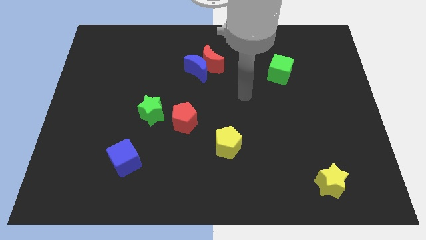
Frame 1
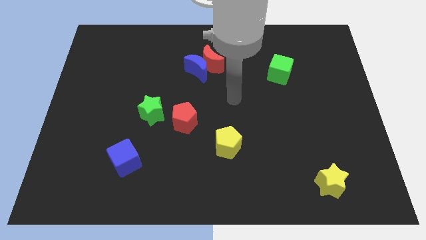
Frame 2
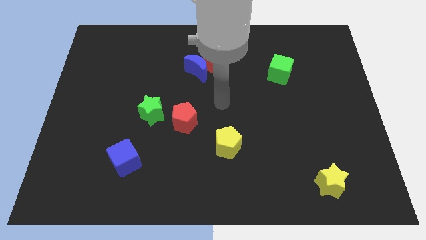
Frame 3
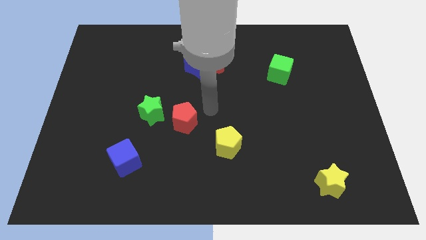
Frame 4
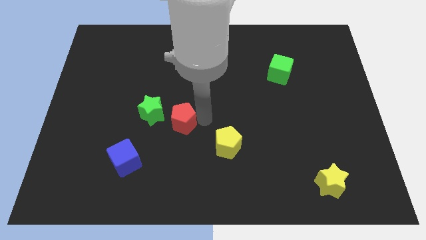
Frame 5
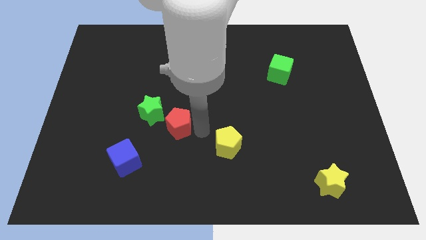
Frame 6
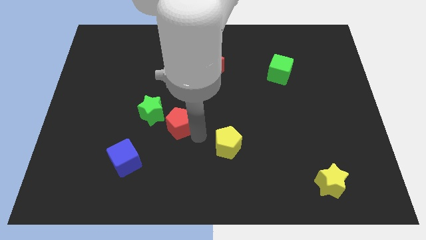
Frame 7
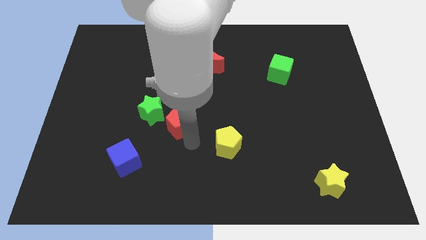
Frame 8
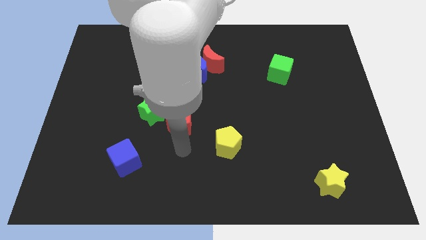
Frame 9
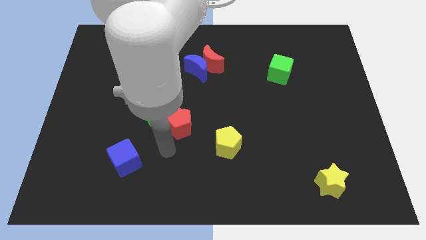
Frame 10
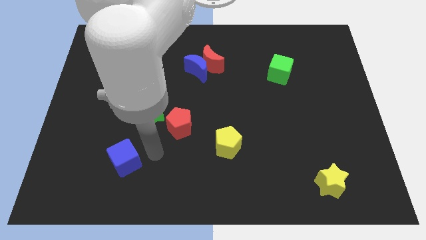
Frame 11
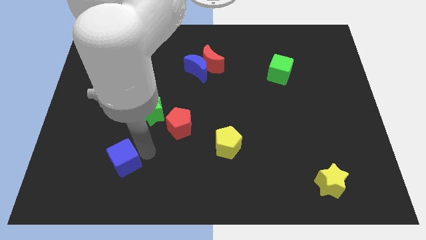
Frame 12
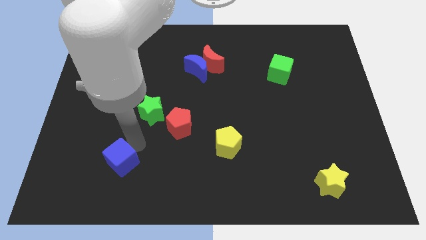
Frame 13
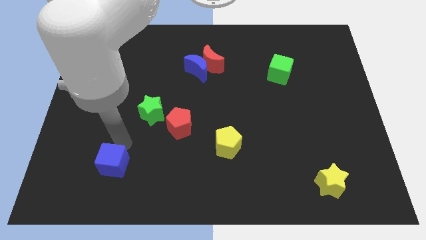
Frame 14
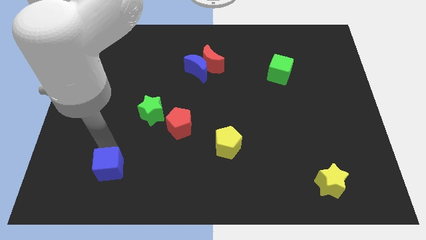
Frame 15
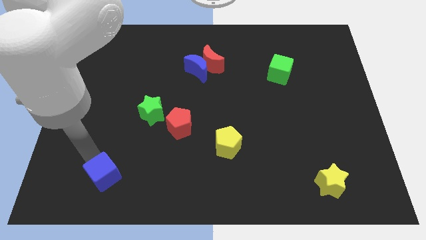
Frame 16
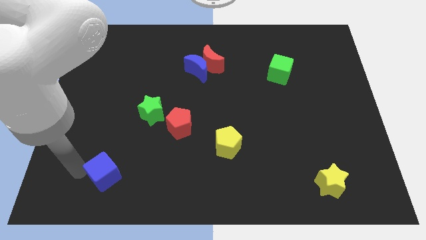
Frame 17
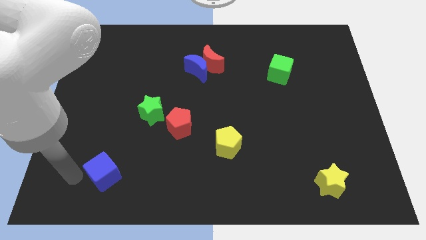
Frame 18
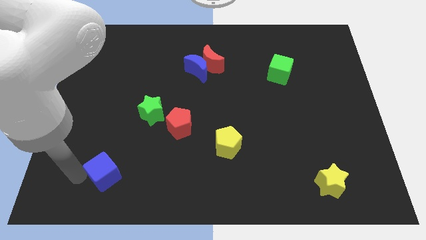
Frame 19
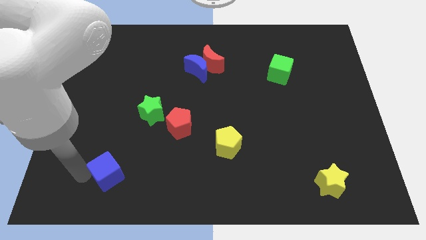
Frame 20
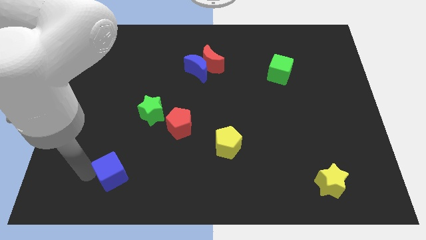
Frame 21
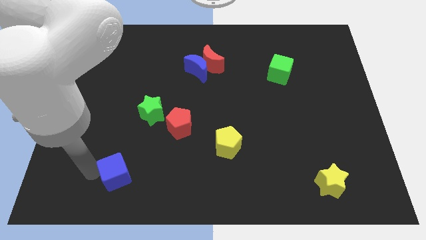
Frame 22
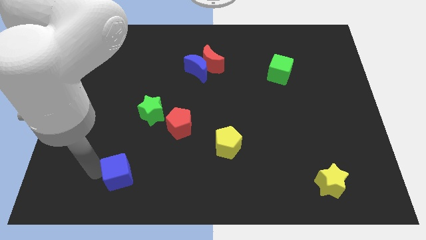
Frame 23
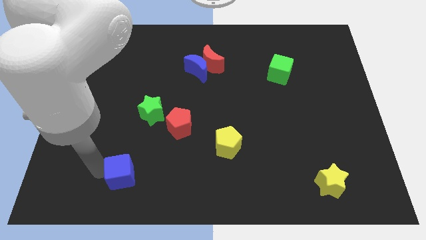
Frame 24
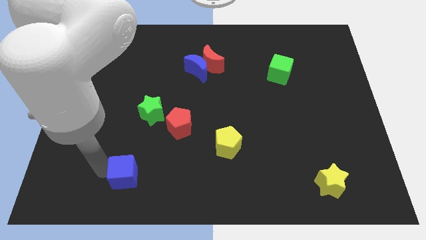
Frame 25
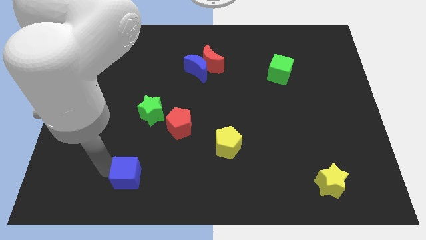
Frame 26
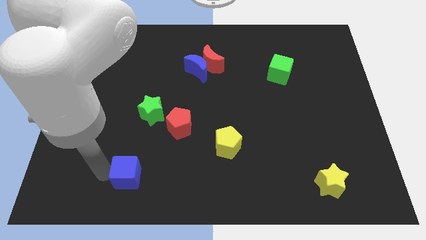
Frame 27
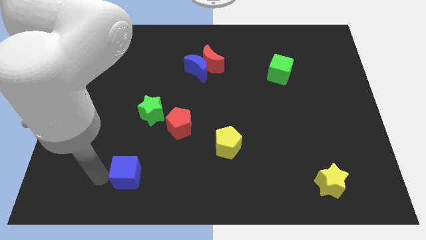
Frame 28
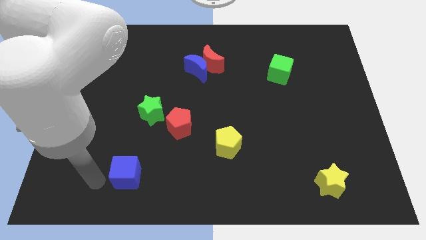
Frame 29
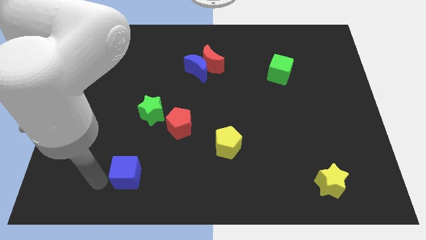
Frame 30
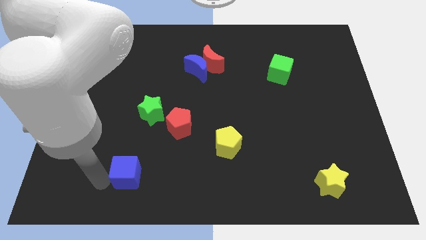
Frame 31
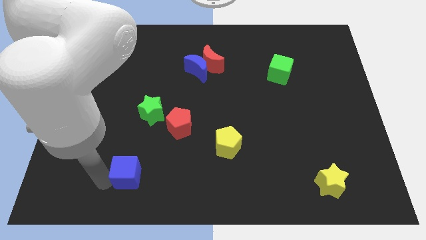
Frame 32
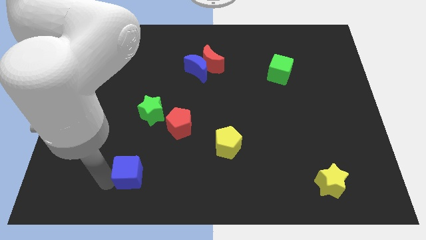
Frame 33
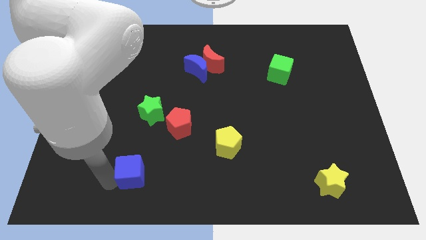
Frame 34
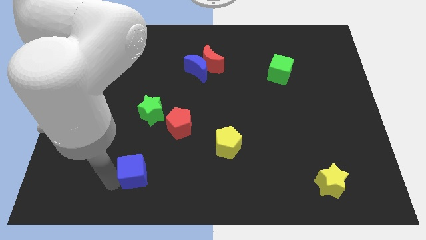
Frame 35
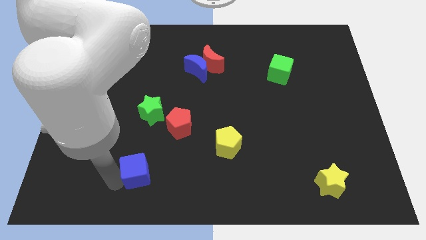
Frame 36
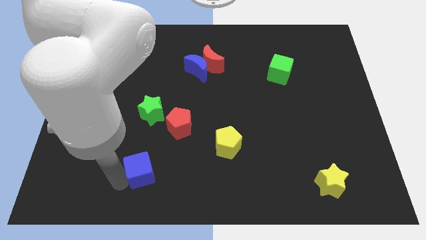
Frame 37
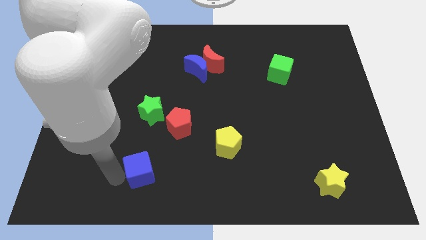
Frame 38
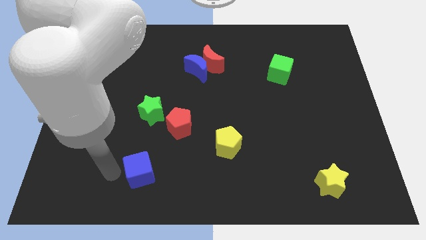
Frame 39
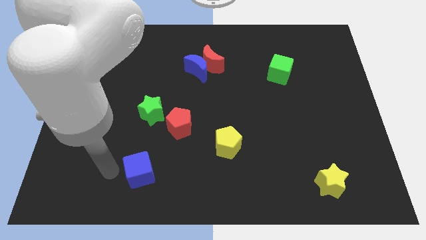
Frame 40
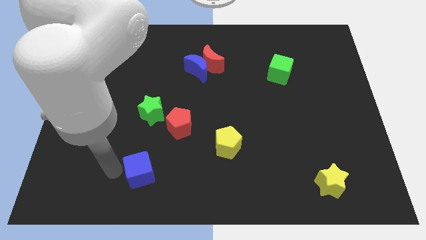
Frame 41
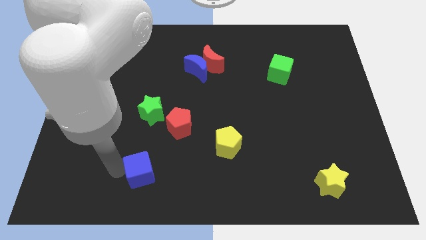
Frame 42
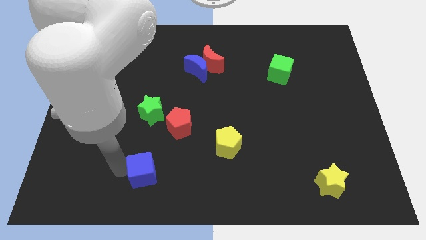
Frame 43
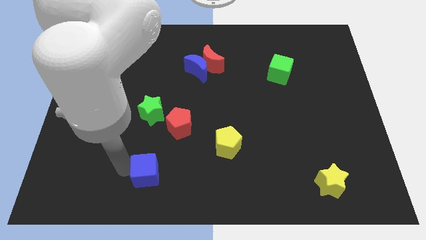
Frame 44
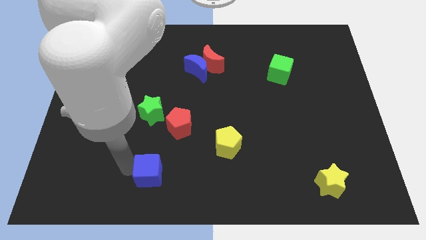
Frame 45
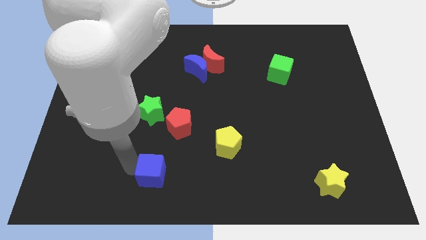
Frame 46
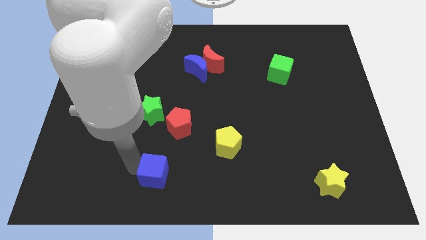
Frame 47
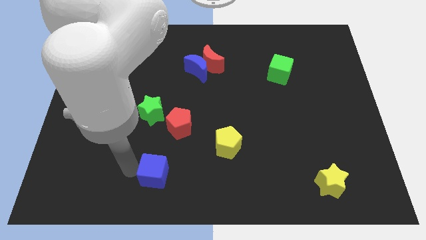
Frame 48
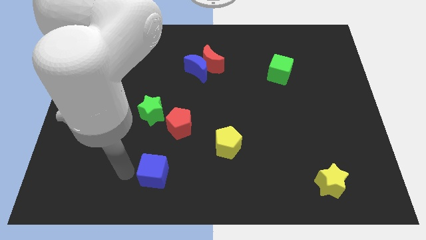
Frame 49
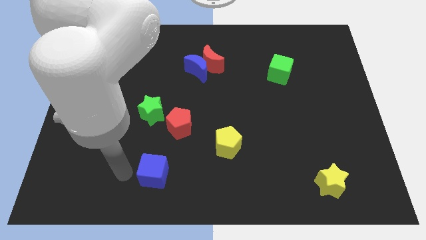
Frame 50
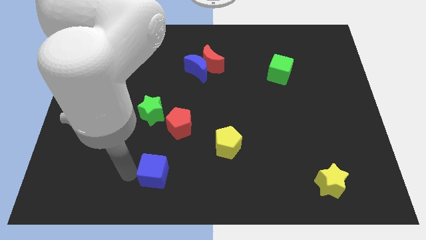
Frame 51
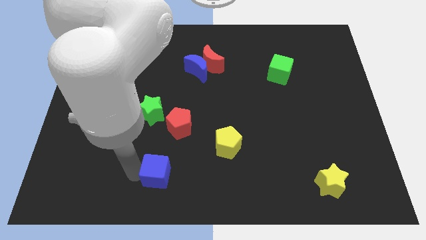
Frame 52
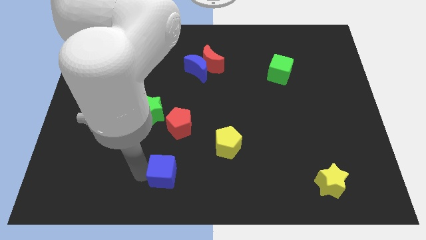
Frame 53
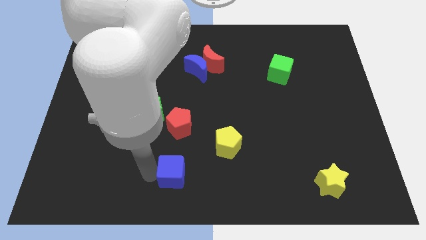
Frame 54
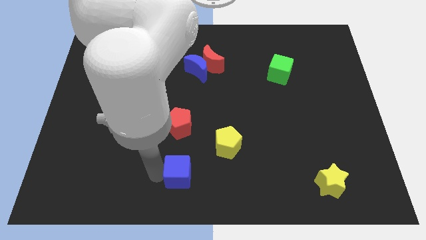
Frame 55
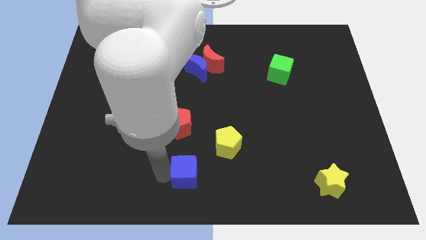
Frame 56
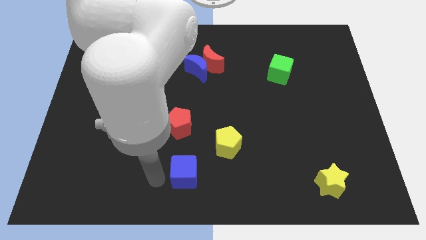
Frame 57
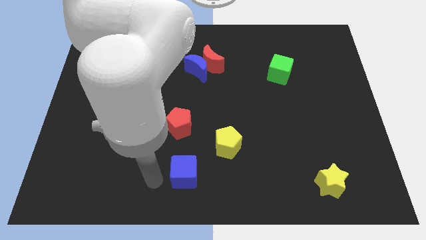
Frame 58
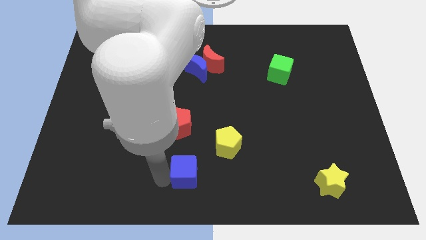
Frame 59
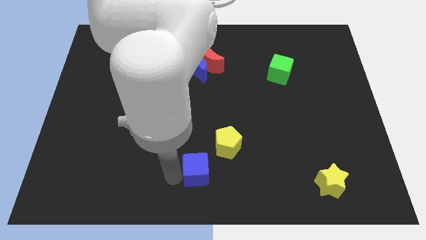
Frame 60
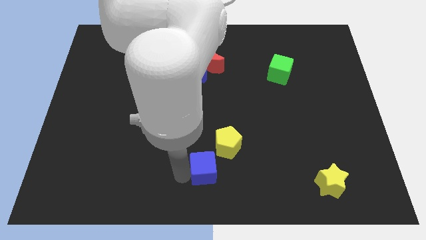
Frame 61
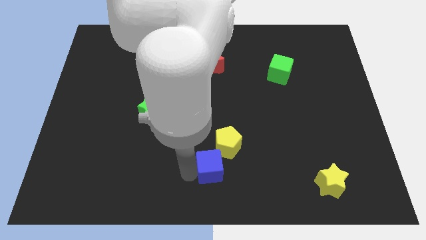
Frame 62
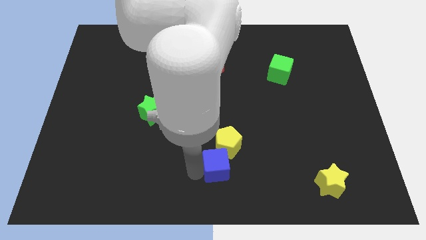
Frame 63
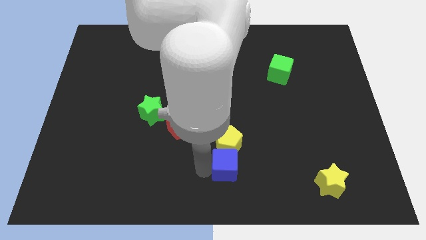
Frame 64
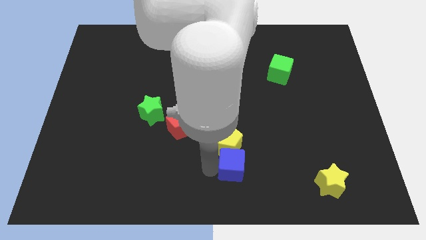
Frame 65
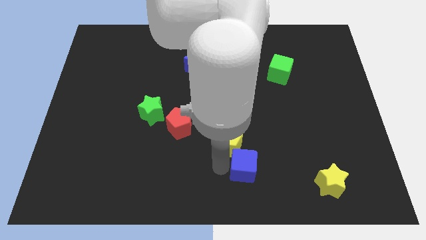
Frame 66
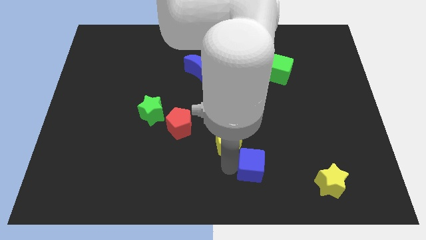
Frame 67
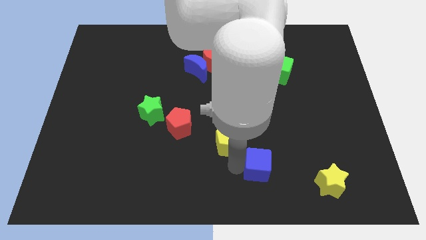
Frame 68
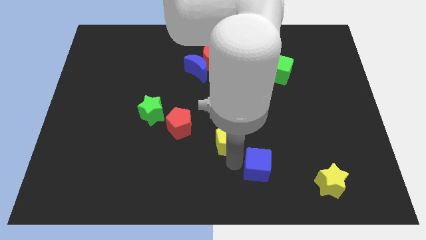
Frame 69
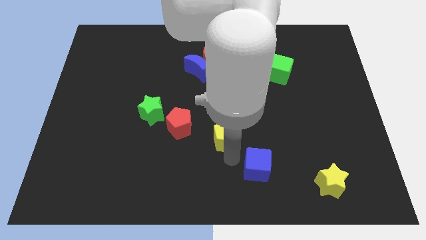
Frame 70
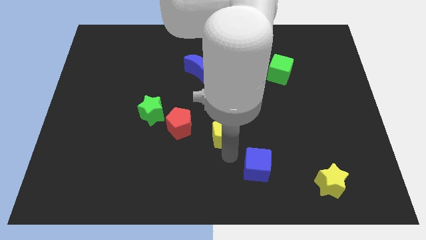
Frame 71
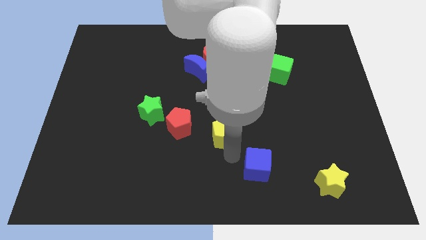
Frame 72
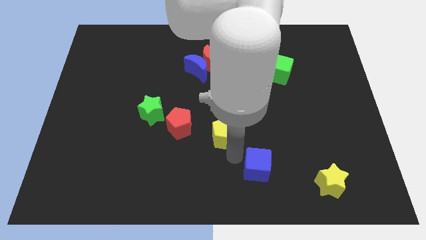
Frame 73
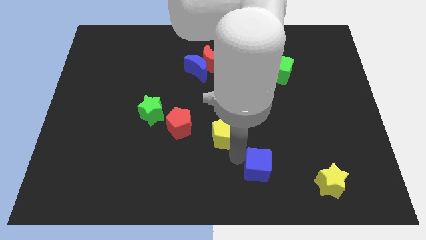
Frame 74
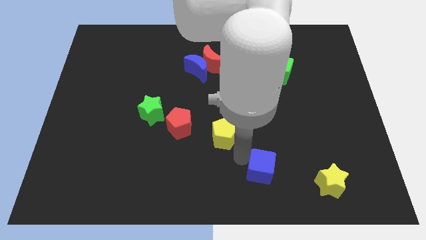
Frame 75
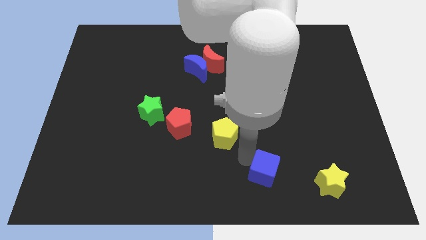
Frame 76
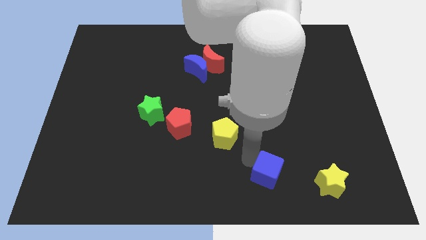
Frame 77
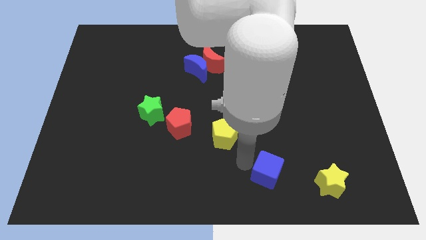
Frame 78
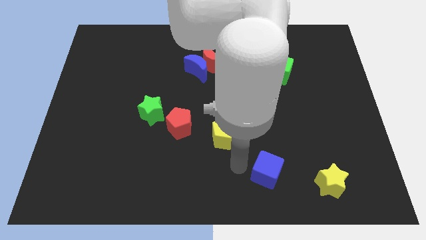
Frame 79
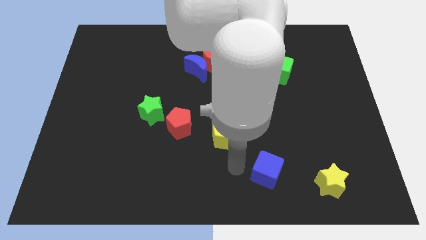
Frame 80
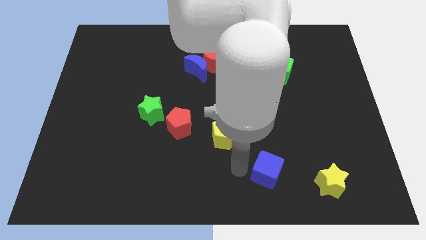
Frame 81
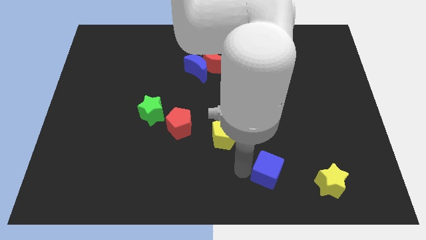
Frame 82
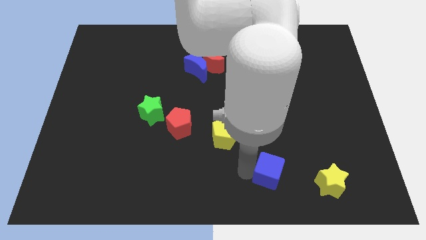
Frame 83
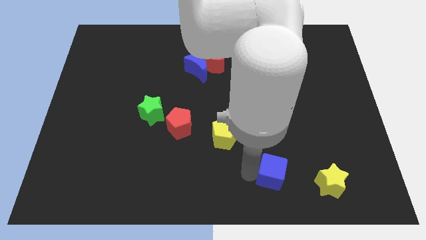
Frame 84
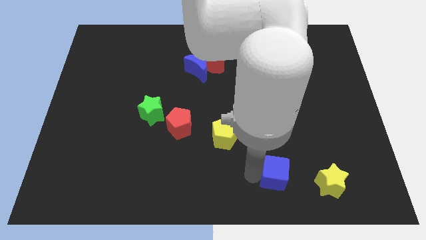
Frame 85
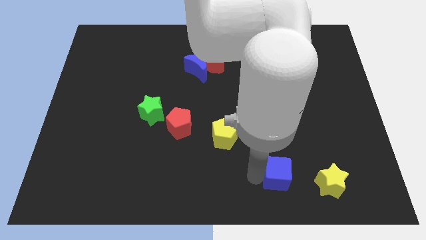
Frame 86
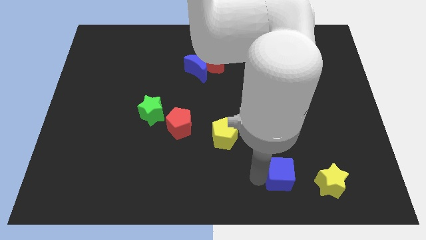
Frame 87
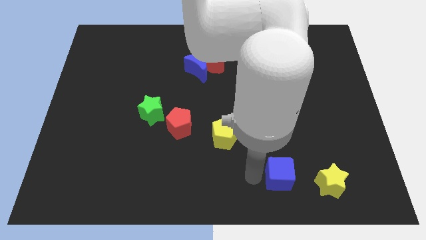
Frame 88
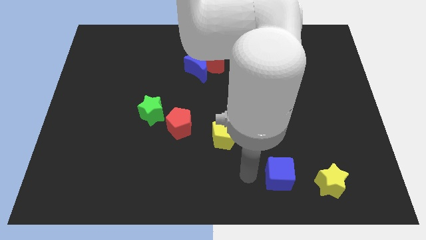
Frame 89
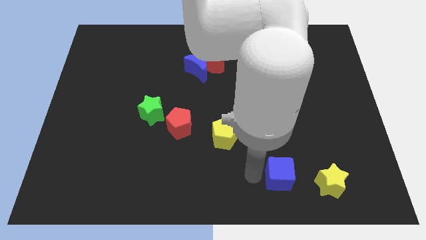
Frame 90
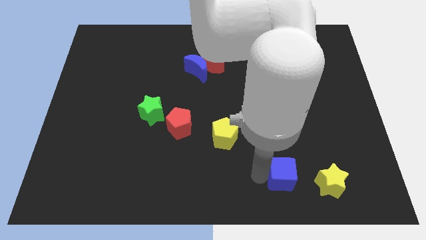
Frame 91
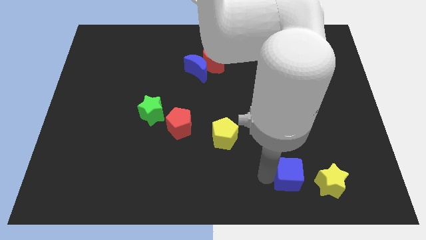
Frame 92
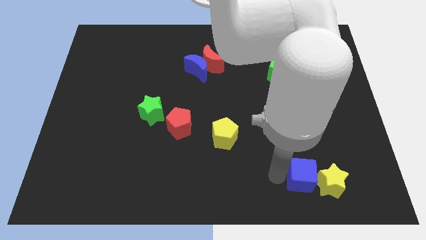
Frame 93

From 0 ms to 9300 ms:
move the blue cube next to the yellow star
